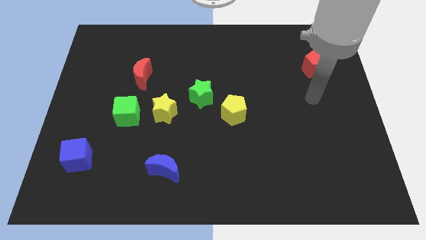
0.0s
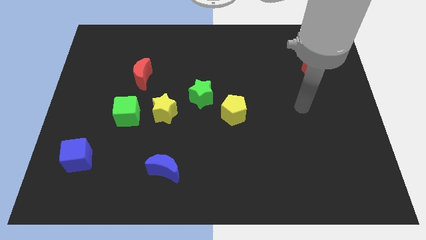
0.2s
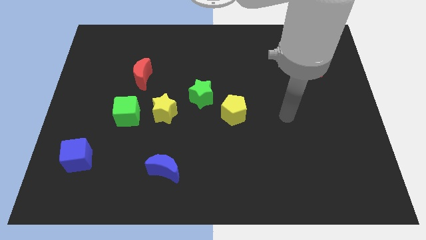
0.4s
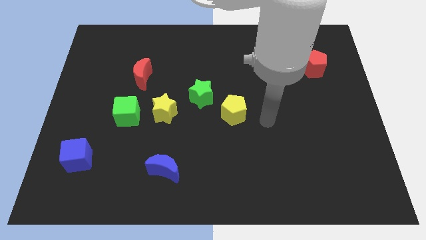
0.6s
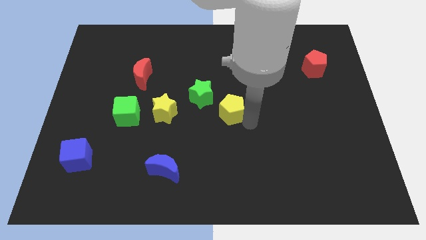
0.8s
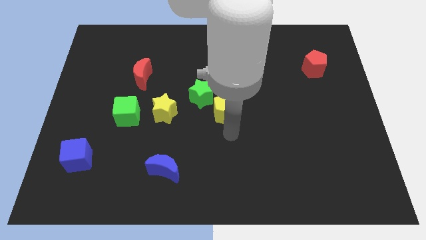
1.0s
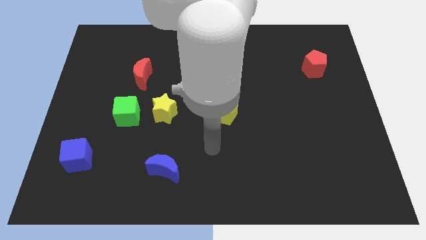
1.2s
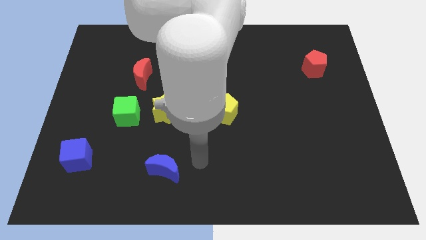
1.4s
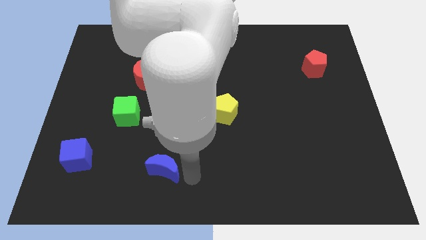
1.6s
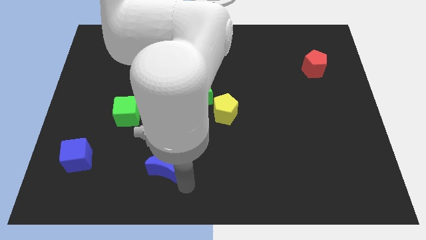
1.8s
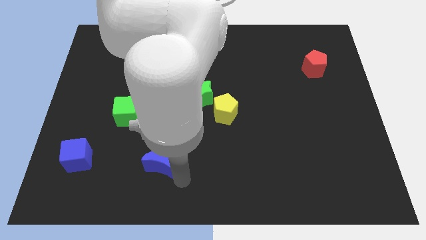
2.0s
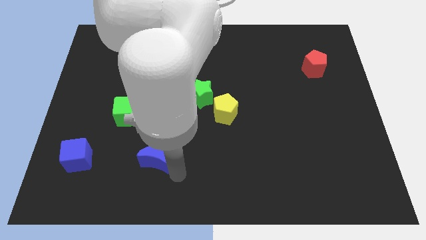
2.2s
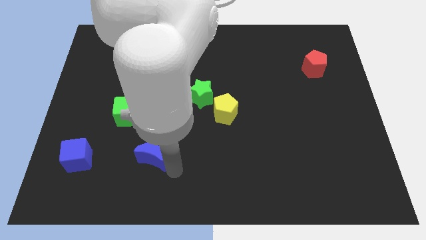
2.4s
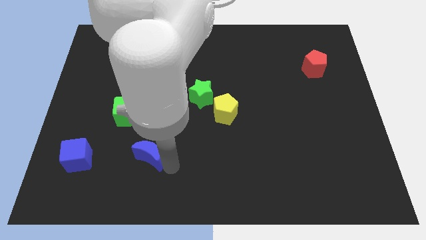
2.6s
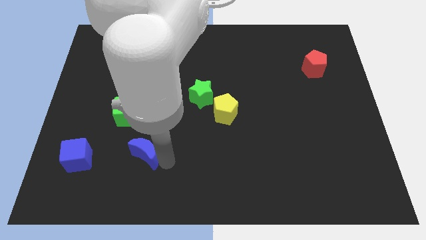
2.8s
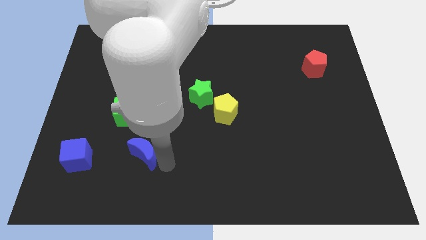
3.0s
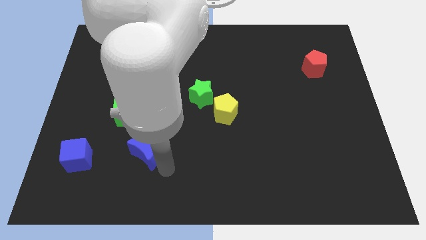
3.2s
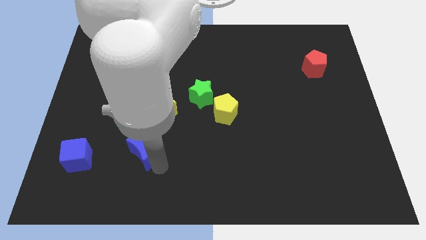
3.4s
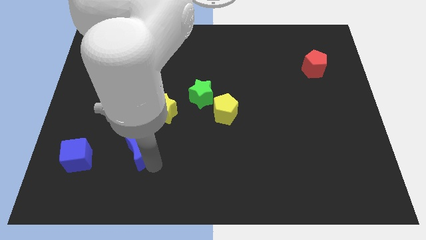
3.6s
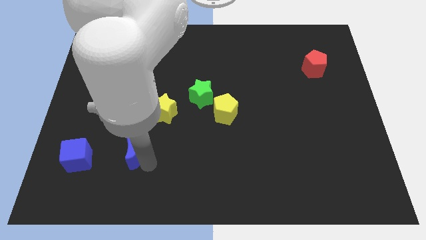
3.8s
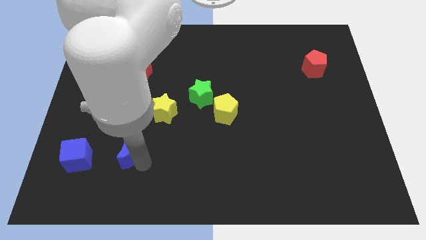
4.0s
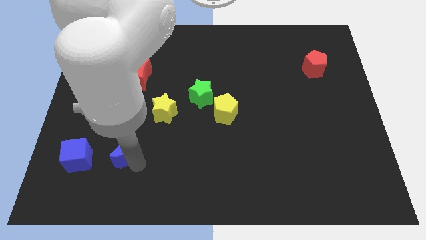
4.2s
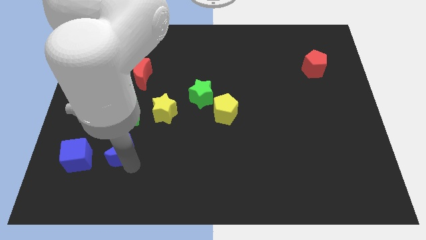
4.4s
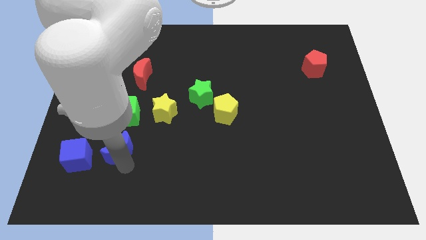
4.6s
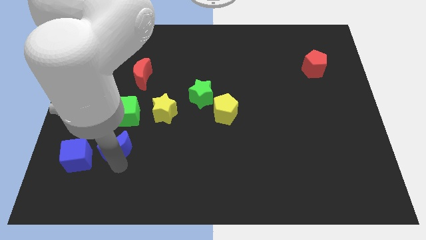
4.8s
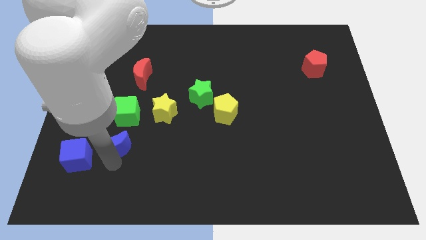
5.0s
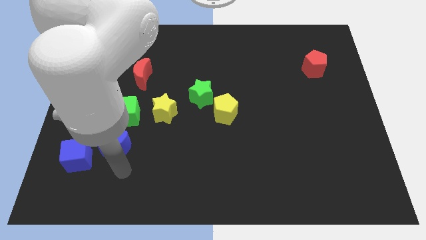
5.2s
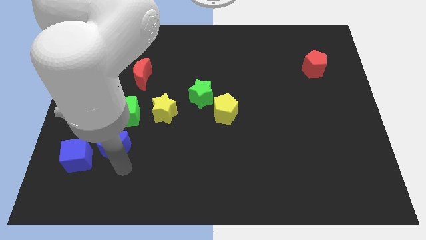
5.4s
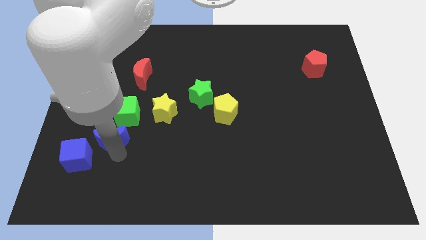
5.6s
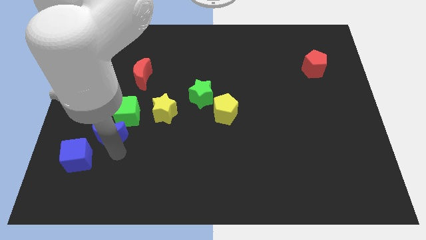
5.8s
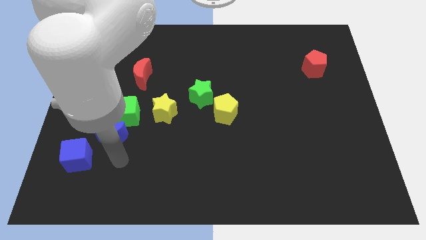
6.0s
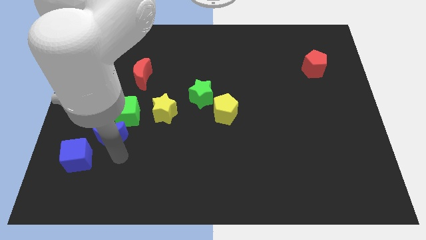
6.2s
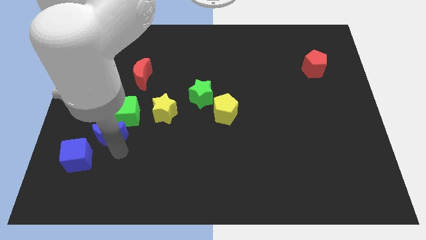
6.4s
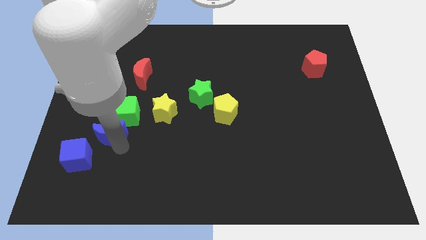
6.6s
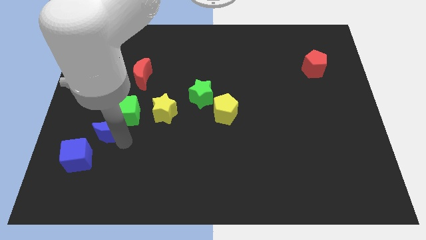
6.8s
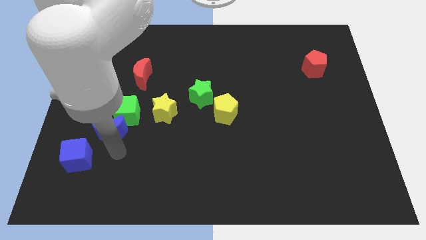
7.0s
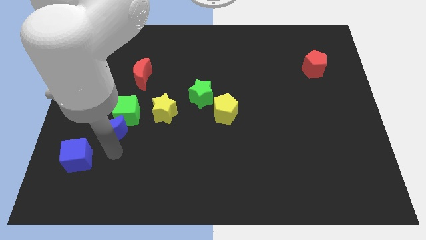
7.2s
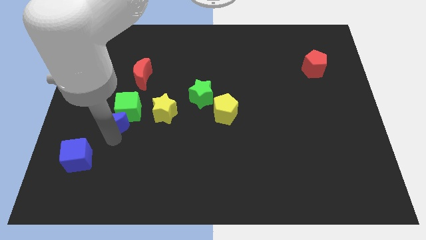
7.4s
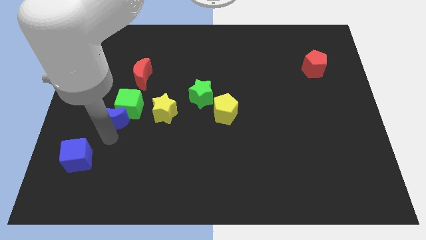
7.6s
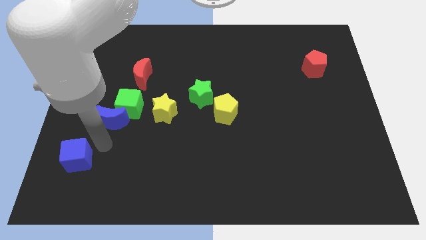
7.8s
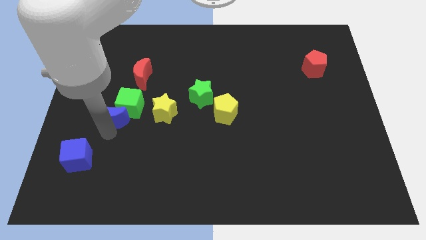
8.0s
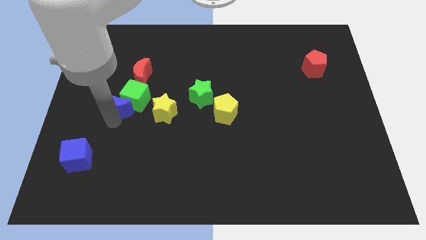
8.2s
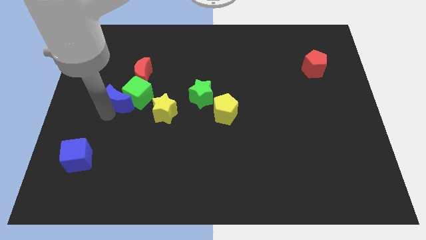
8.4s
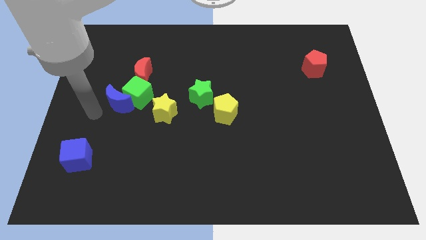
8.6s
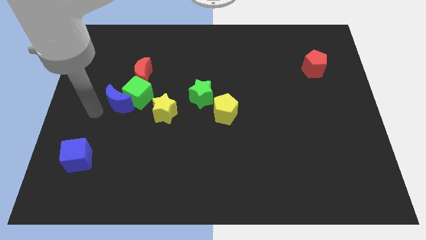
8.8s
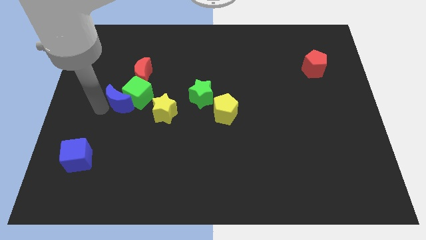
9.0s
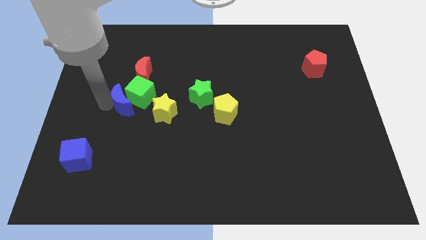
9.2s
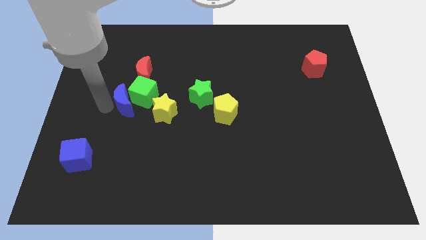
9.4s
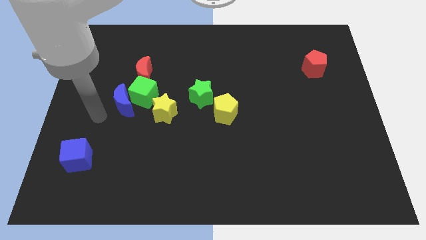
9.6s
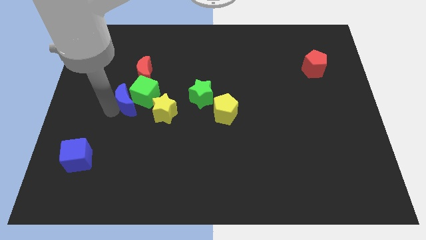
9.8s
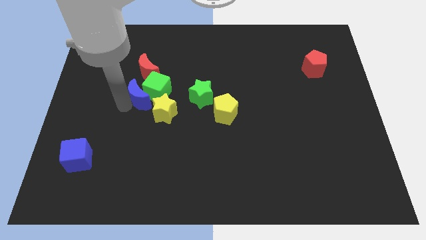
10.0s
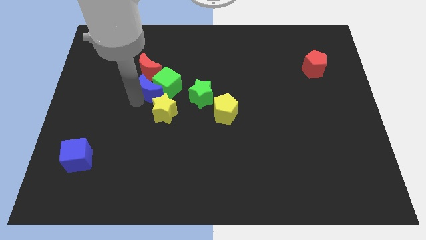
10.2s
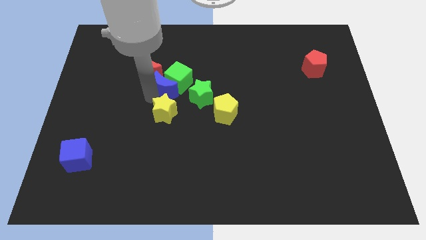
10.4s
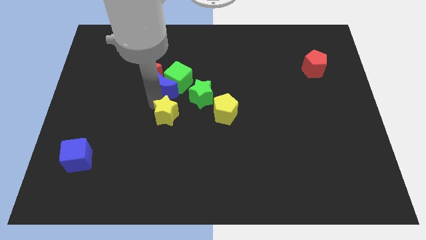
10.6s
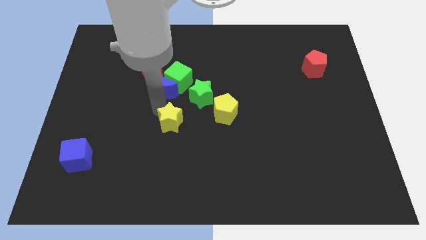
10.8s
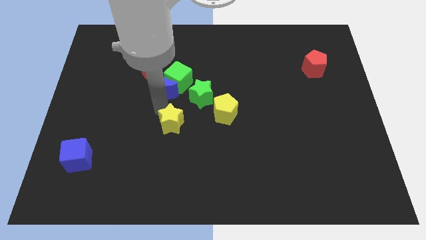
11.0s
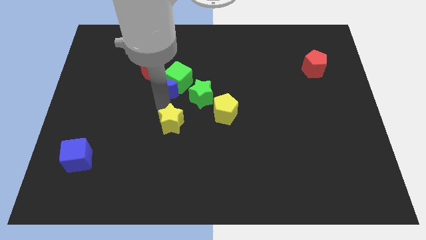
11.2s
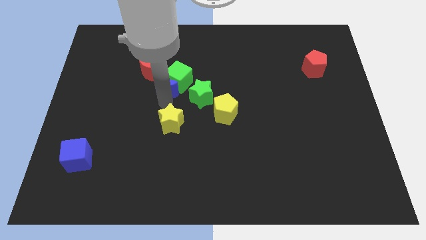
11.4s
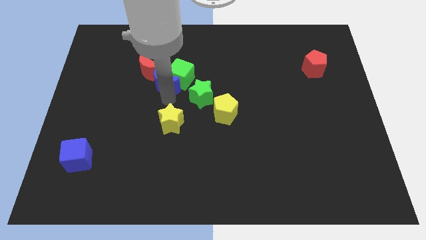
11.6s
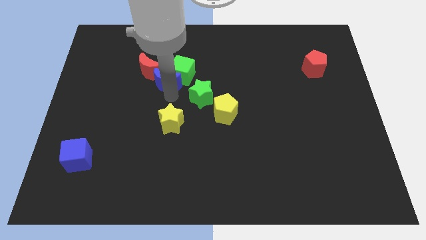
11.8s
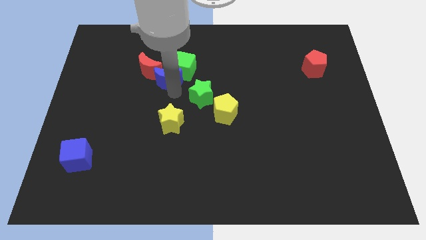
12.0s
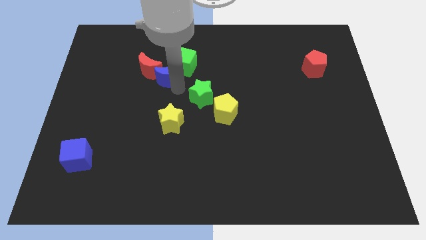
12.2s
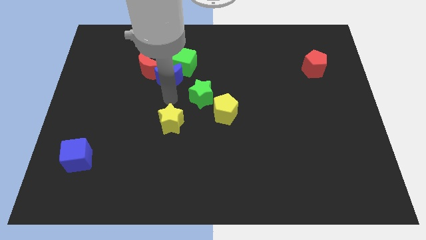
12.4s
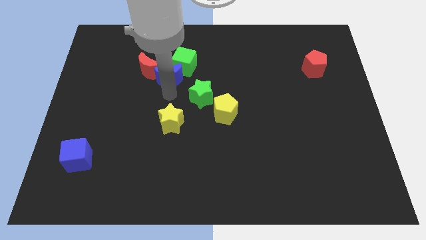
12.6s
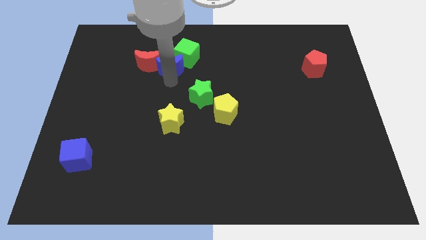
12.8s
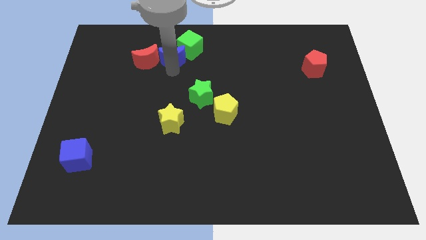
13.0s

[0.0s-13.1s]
move the blue moon to the top right side of the red moon
